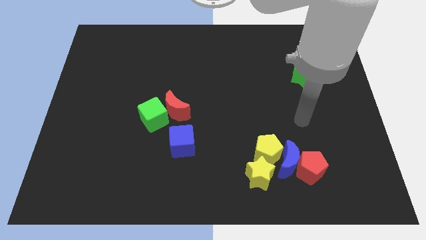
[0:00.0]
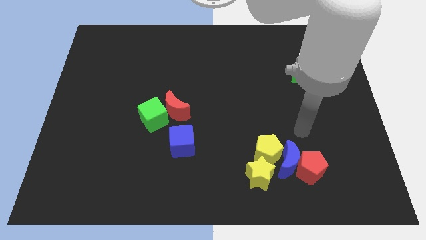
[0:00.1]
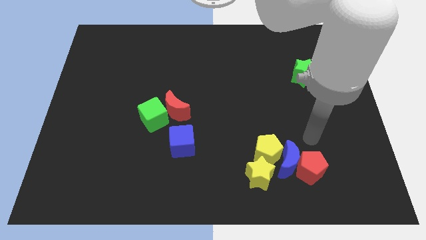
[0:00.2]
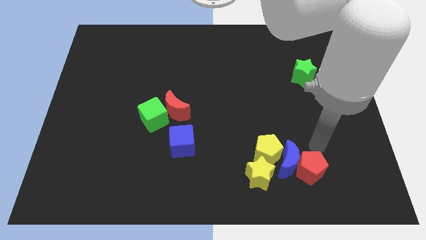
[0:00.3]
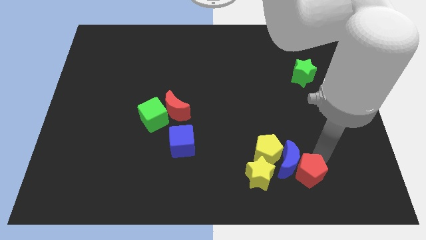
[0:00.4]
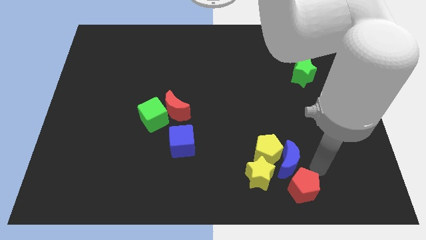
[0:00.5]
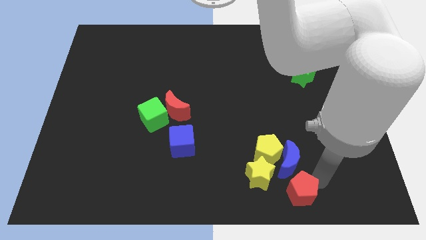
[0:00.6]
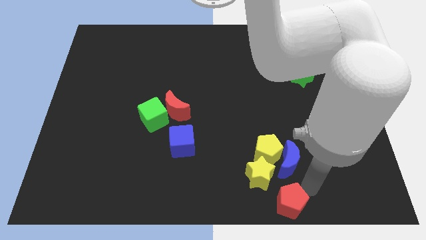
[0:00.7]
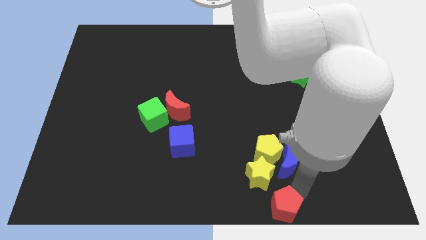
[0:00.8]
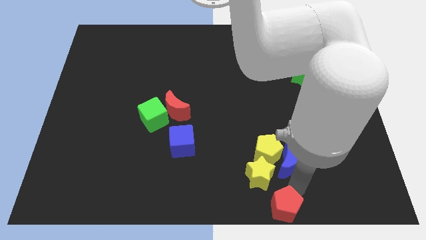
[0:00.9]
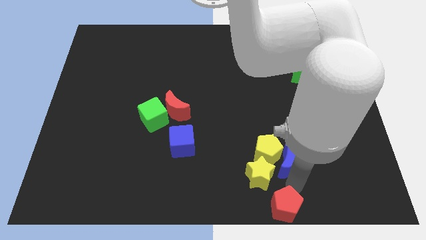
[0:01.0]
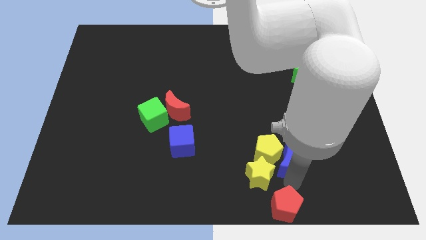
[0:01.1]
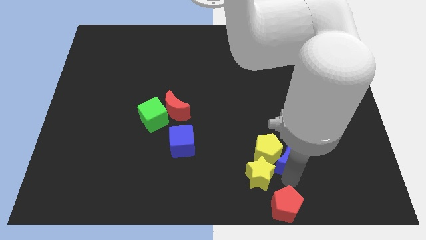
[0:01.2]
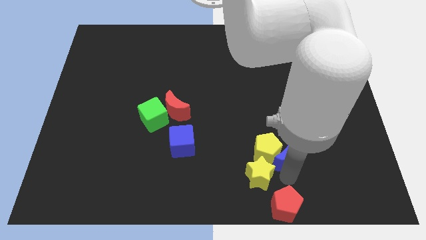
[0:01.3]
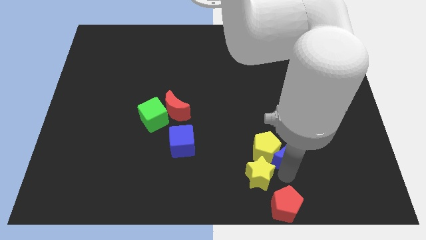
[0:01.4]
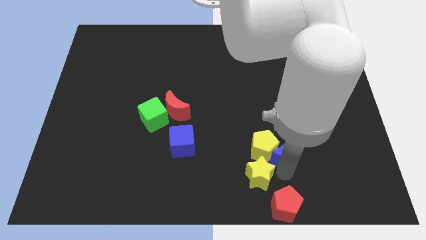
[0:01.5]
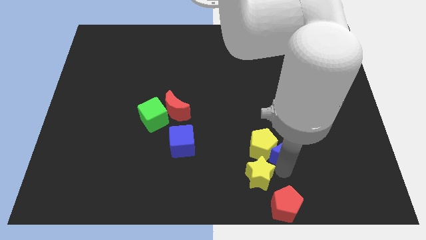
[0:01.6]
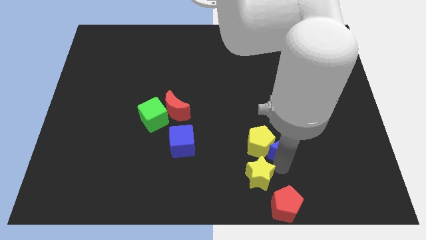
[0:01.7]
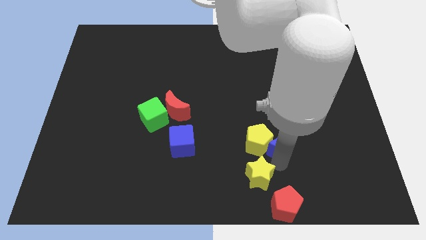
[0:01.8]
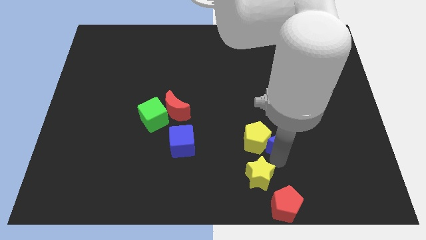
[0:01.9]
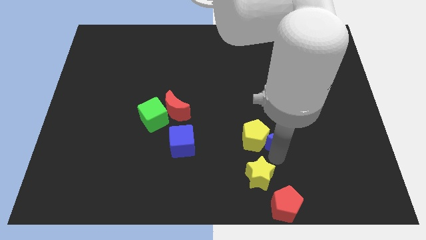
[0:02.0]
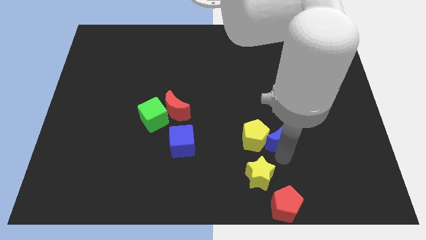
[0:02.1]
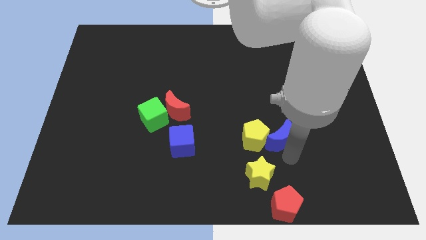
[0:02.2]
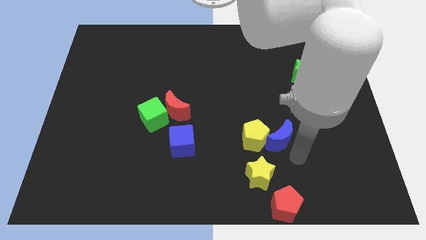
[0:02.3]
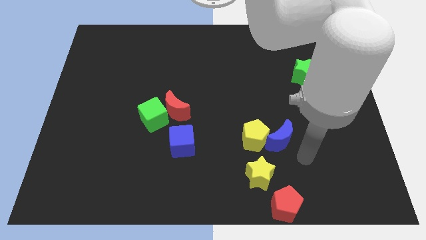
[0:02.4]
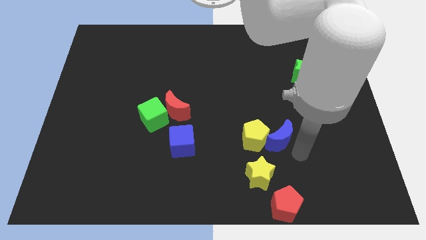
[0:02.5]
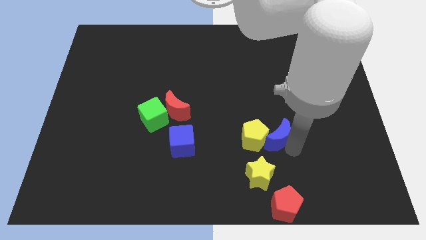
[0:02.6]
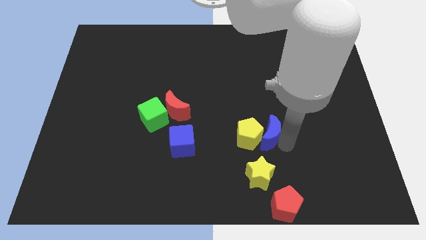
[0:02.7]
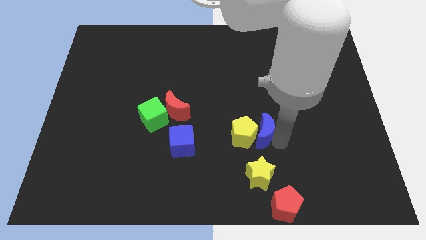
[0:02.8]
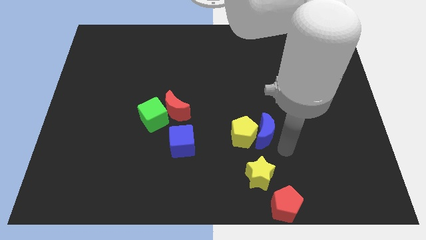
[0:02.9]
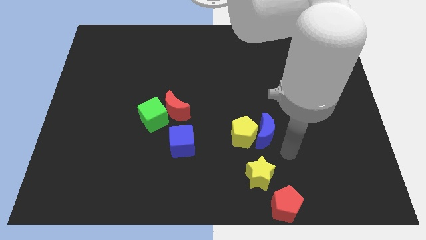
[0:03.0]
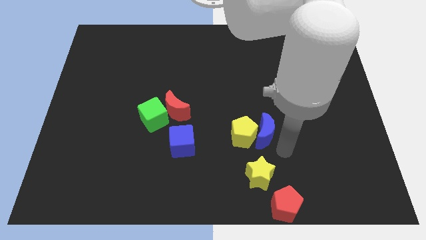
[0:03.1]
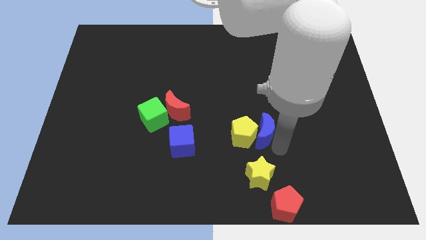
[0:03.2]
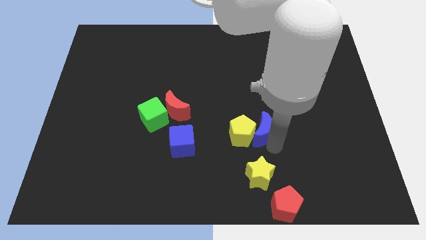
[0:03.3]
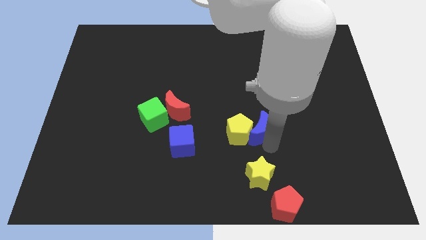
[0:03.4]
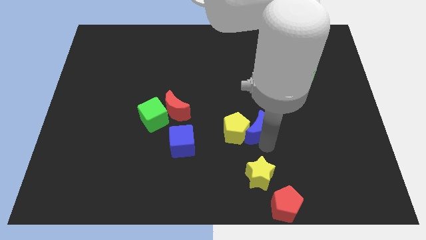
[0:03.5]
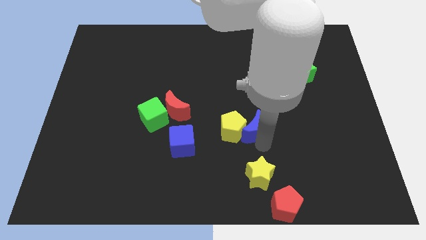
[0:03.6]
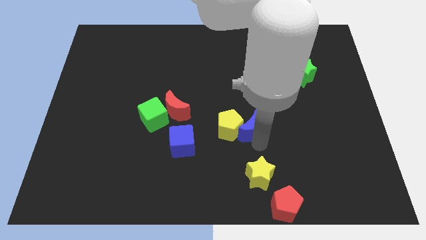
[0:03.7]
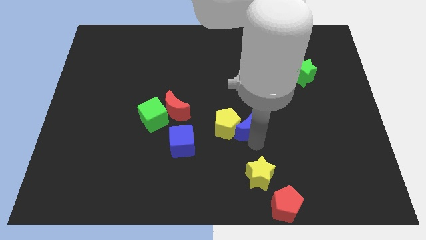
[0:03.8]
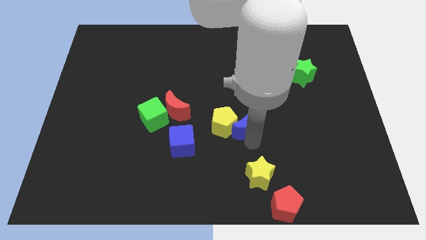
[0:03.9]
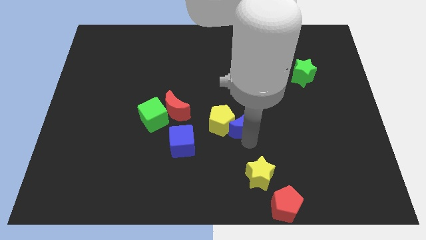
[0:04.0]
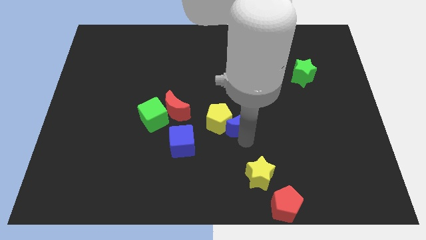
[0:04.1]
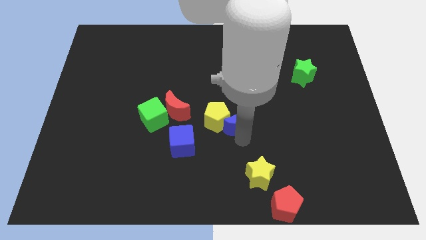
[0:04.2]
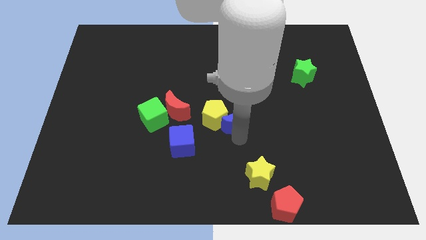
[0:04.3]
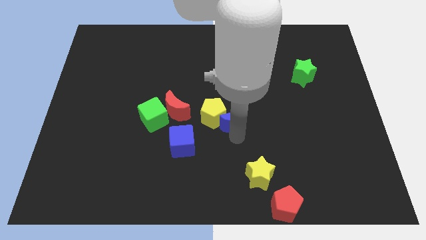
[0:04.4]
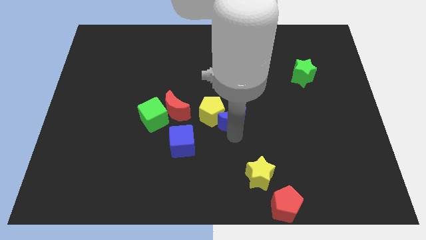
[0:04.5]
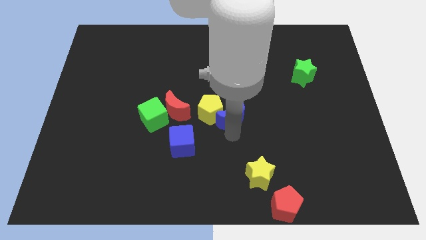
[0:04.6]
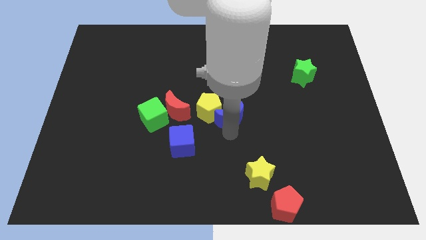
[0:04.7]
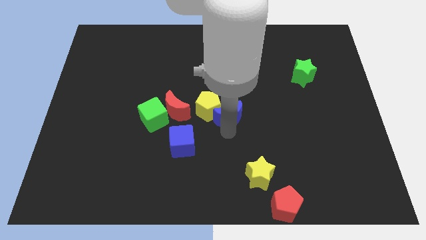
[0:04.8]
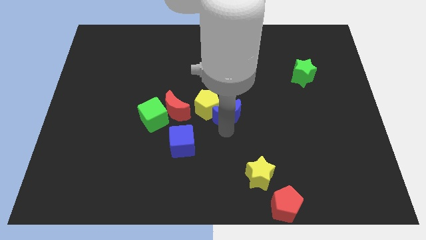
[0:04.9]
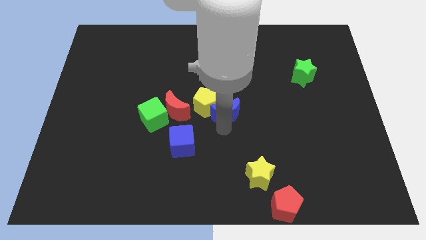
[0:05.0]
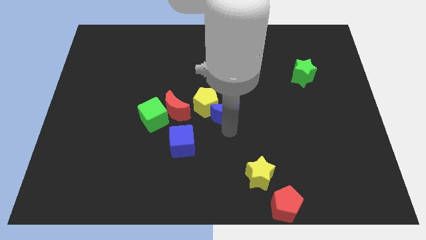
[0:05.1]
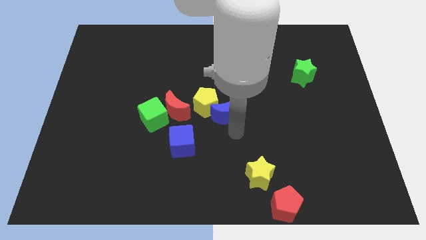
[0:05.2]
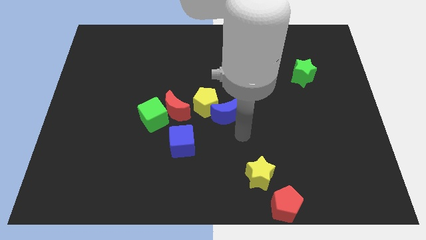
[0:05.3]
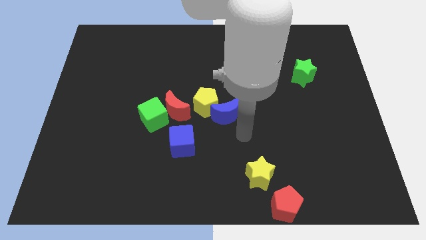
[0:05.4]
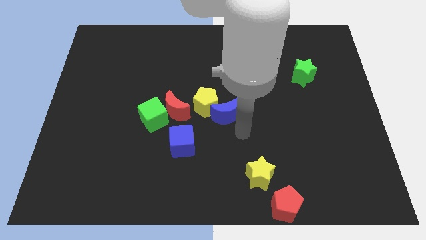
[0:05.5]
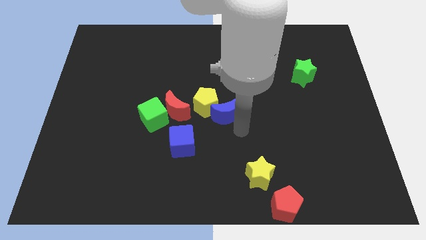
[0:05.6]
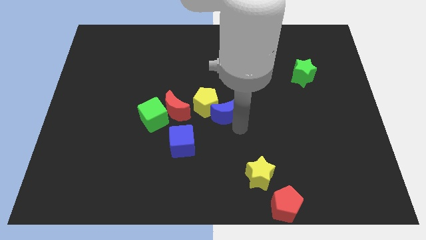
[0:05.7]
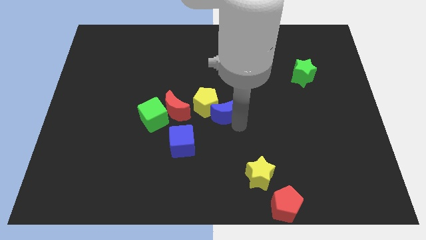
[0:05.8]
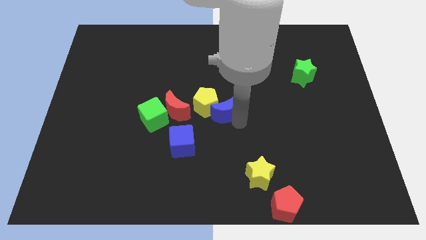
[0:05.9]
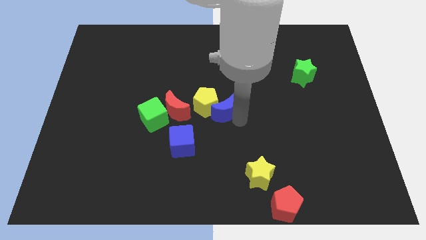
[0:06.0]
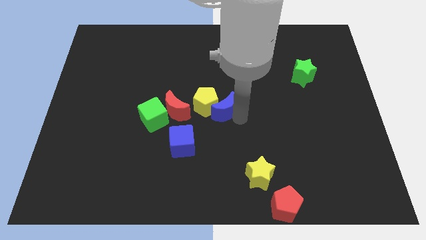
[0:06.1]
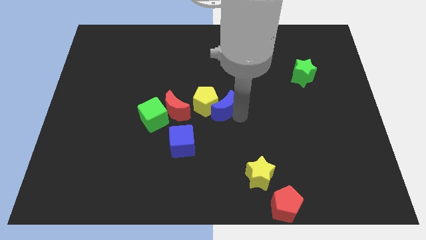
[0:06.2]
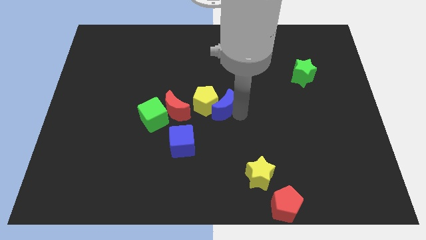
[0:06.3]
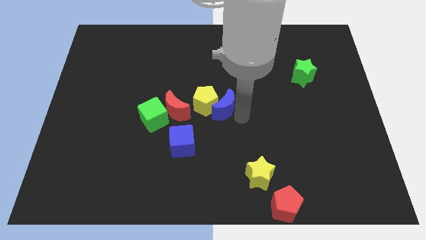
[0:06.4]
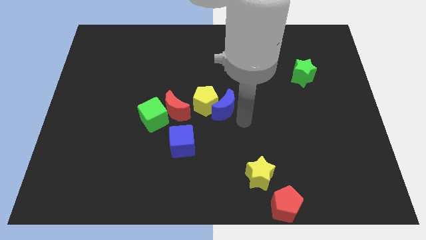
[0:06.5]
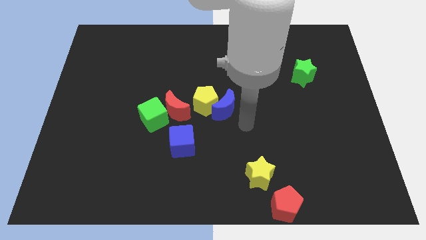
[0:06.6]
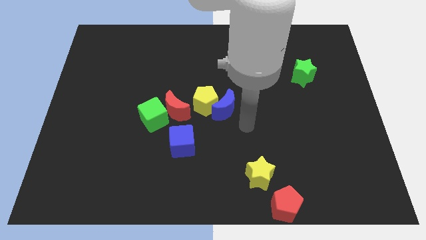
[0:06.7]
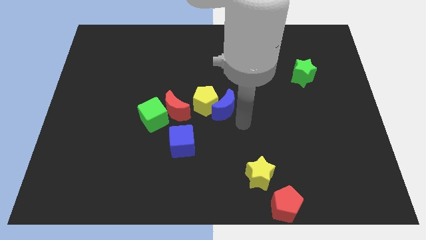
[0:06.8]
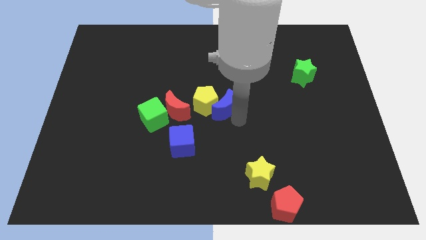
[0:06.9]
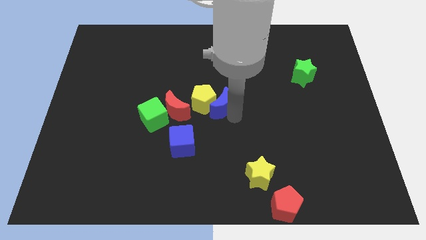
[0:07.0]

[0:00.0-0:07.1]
slide the blue moon upwards and then to the left

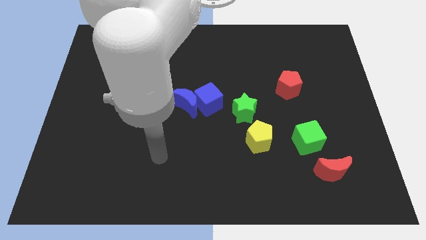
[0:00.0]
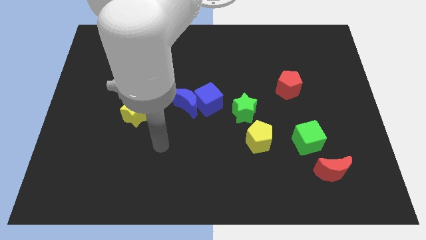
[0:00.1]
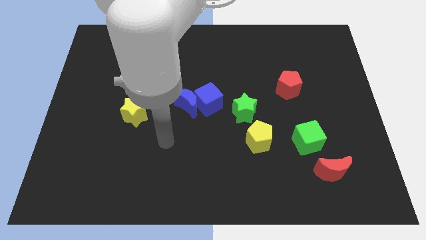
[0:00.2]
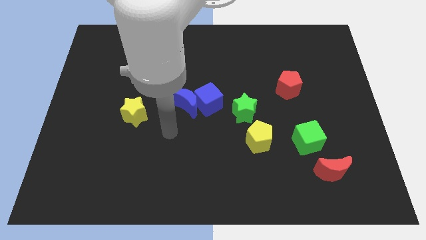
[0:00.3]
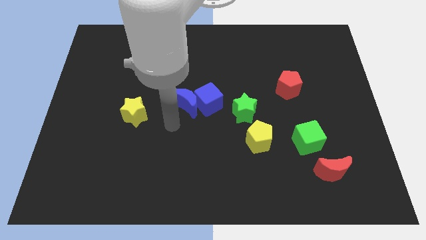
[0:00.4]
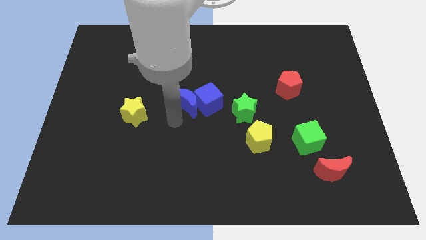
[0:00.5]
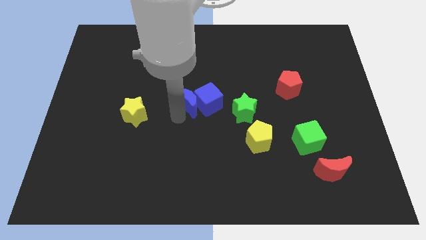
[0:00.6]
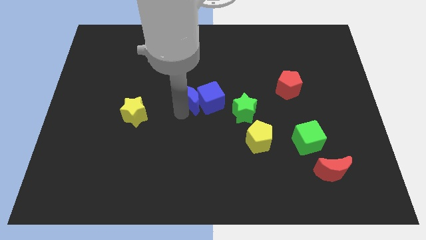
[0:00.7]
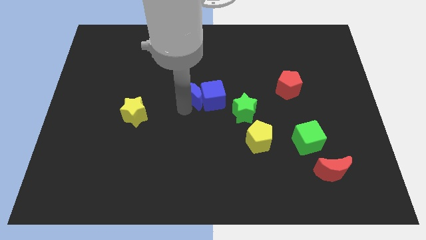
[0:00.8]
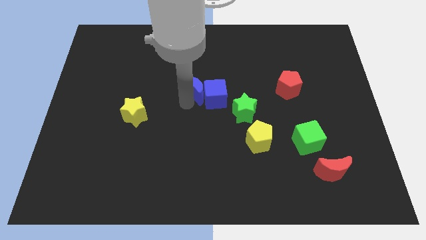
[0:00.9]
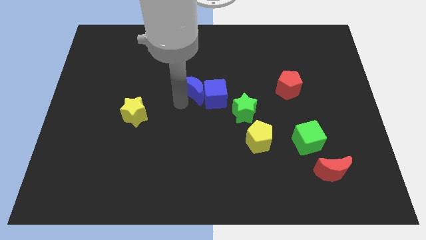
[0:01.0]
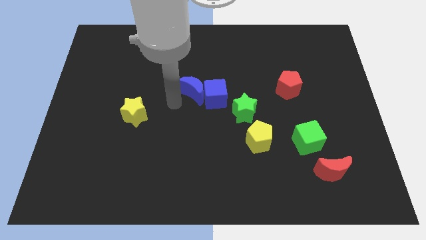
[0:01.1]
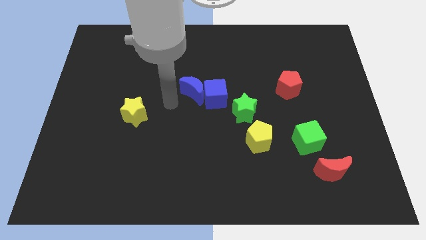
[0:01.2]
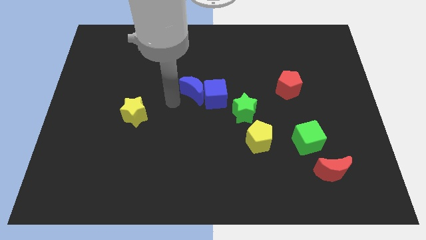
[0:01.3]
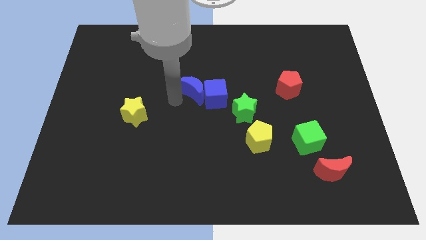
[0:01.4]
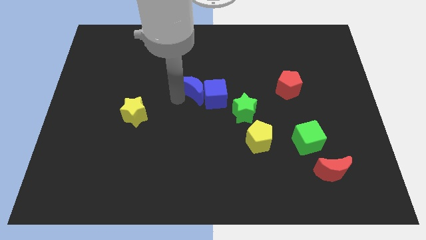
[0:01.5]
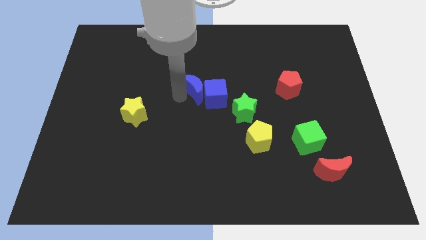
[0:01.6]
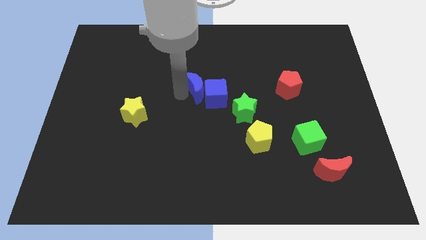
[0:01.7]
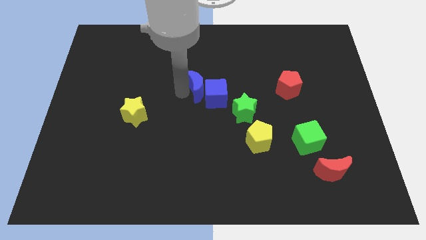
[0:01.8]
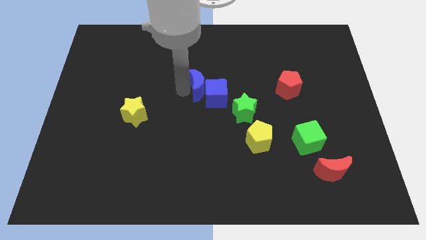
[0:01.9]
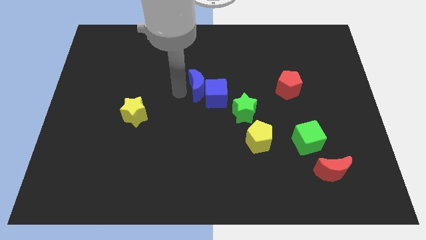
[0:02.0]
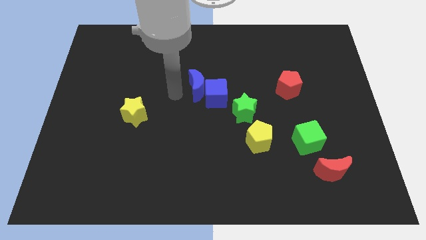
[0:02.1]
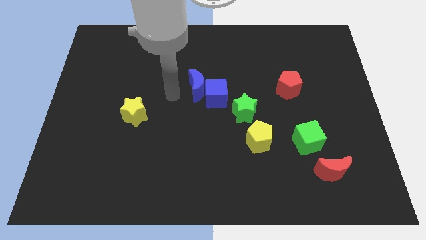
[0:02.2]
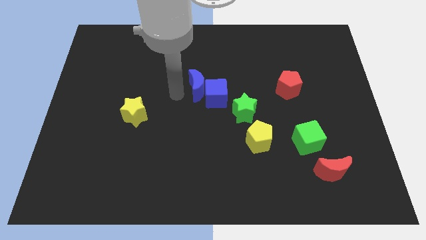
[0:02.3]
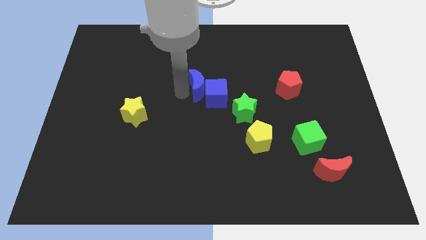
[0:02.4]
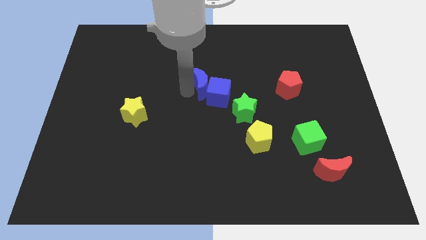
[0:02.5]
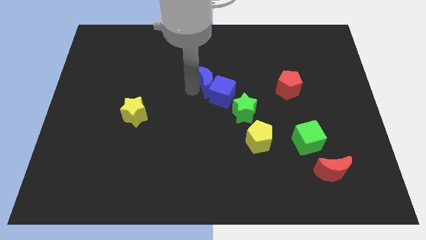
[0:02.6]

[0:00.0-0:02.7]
slide the blue moon slightly up and then right
